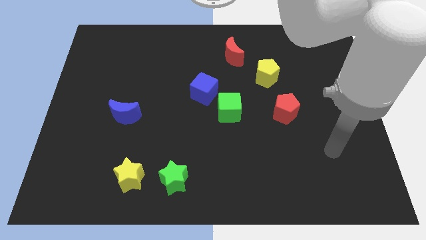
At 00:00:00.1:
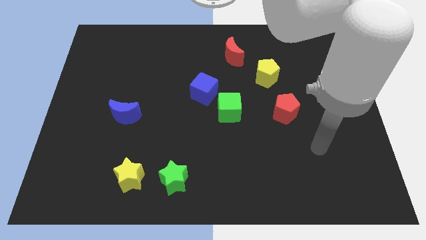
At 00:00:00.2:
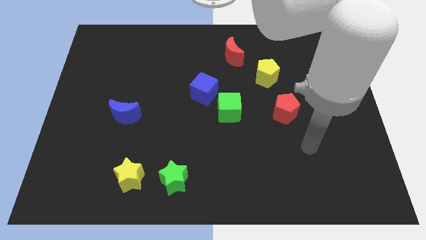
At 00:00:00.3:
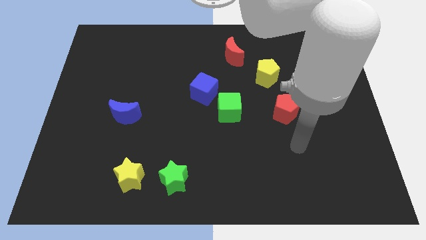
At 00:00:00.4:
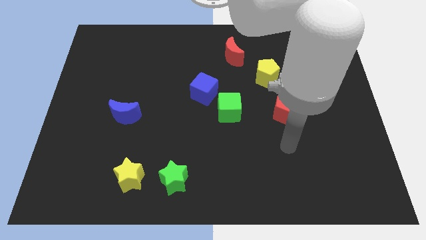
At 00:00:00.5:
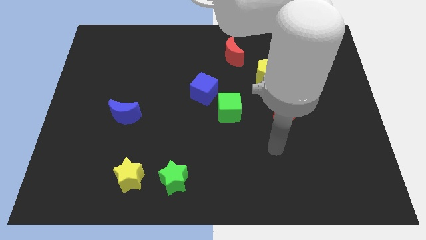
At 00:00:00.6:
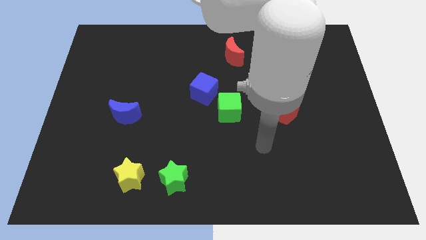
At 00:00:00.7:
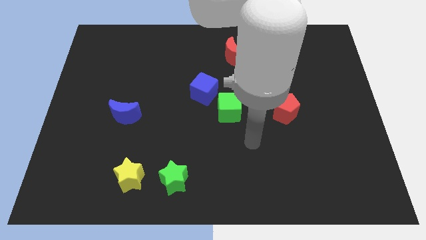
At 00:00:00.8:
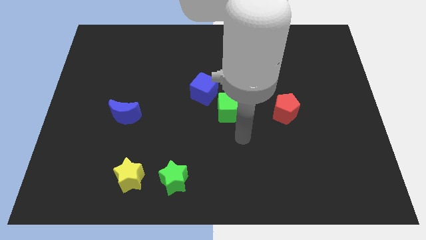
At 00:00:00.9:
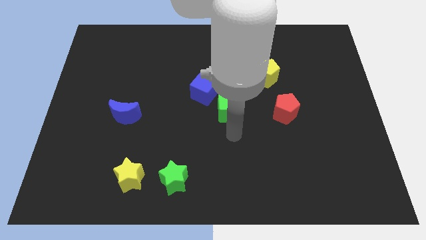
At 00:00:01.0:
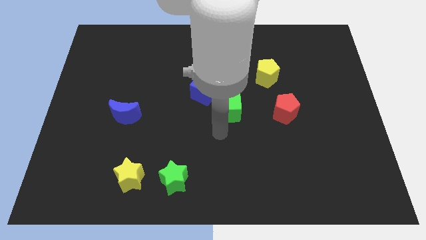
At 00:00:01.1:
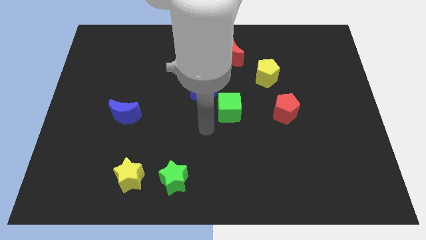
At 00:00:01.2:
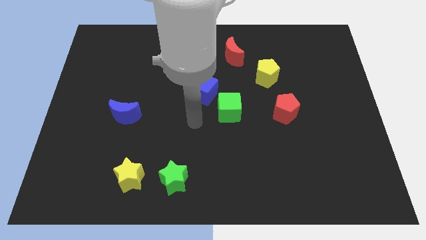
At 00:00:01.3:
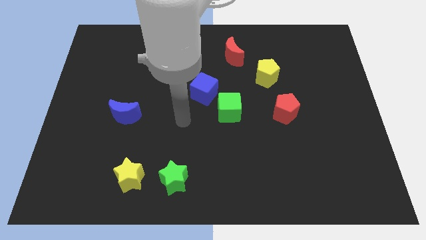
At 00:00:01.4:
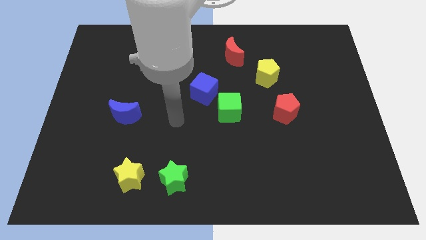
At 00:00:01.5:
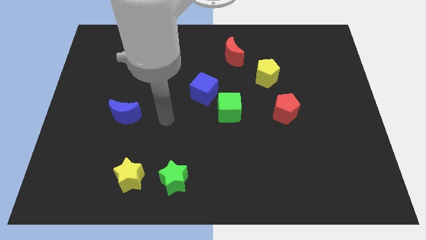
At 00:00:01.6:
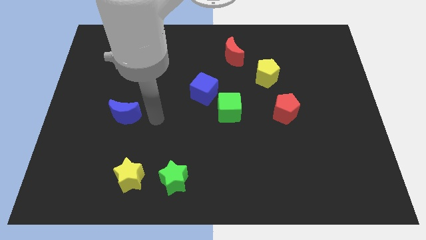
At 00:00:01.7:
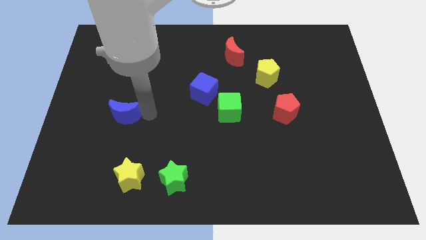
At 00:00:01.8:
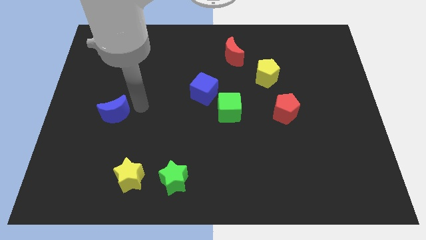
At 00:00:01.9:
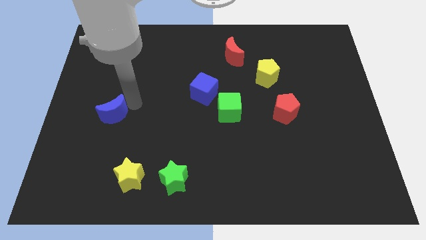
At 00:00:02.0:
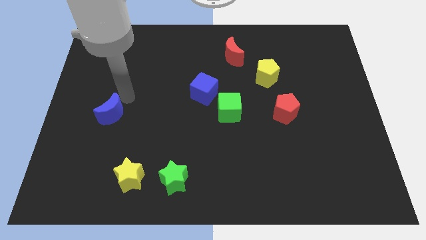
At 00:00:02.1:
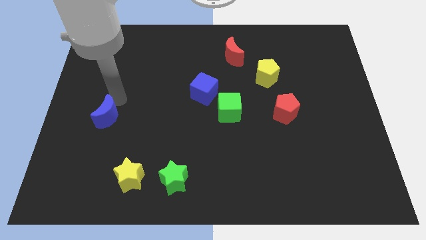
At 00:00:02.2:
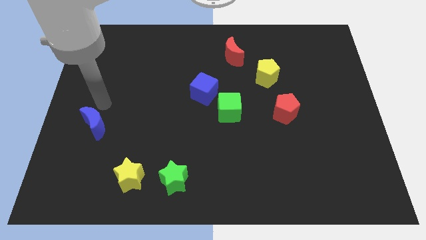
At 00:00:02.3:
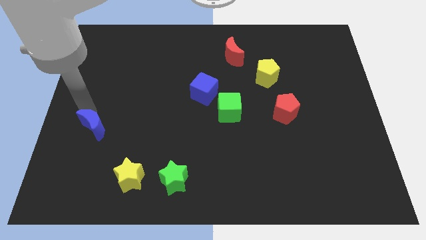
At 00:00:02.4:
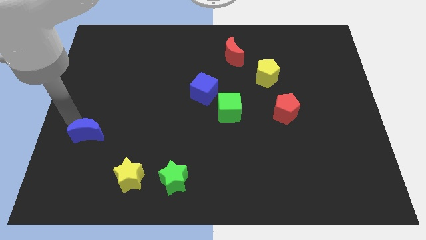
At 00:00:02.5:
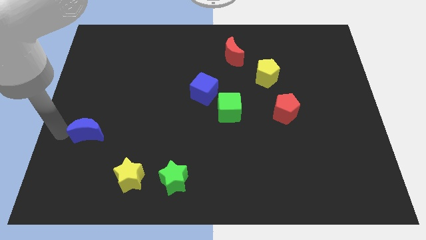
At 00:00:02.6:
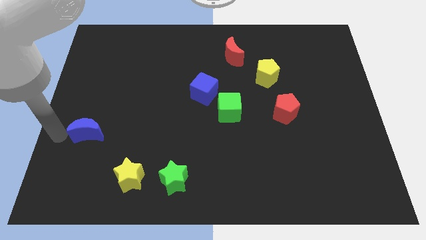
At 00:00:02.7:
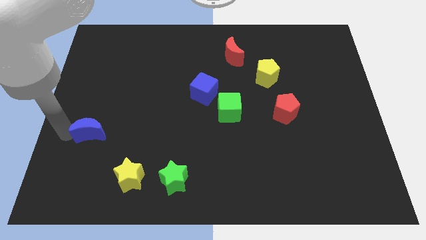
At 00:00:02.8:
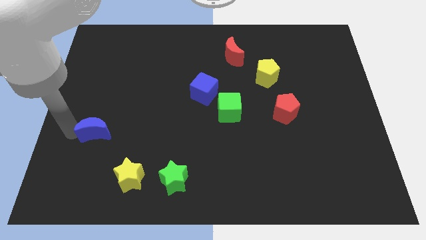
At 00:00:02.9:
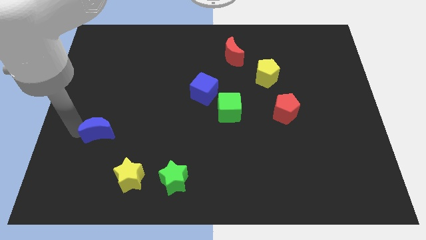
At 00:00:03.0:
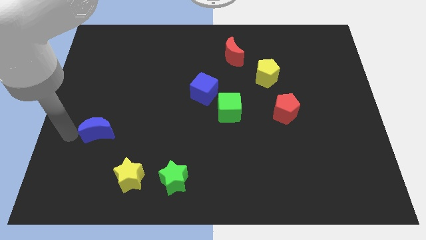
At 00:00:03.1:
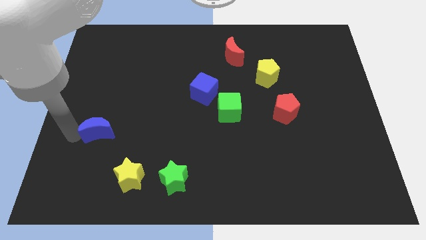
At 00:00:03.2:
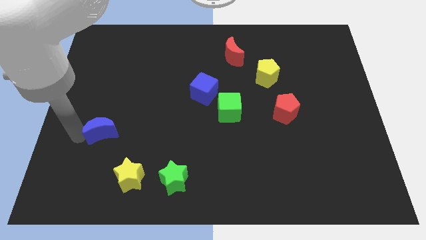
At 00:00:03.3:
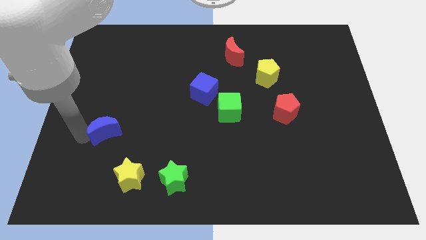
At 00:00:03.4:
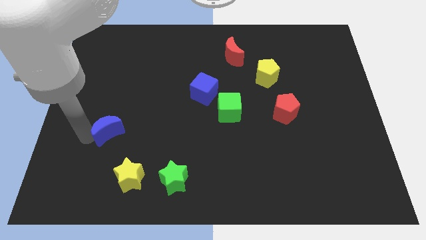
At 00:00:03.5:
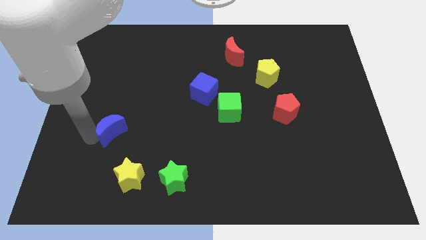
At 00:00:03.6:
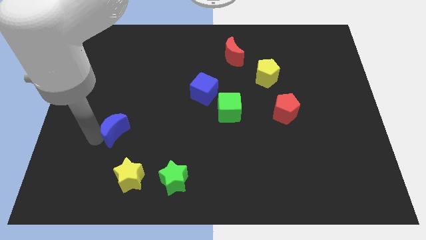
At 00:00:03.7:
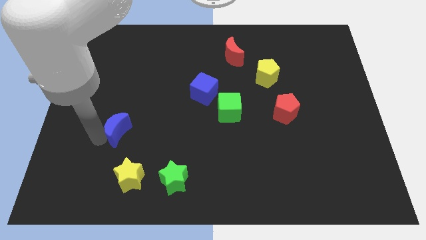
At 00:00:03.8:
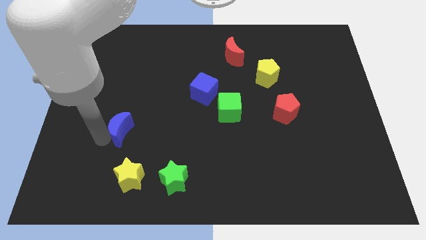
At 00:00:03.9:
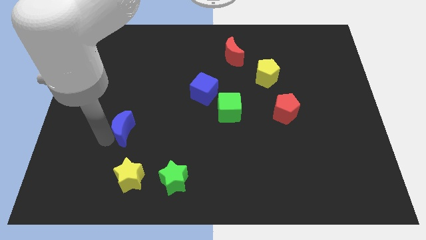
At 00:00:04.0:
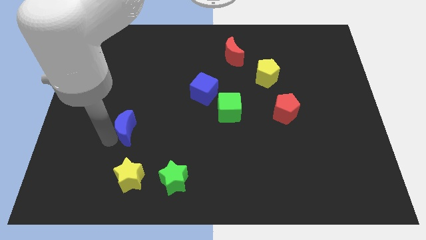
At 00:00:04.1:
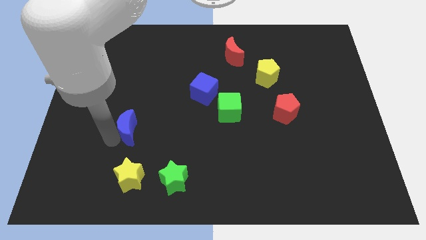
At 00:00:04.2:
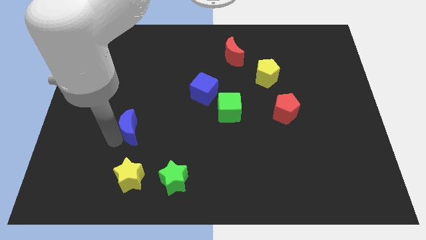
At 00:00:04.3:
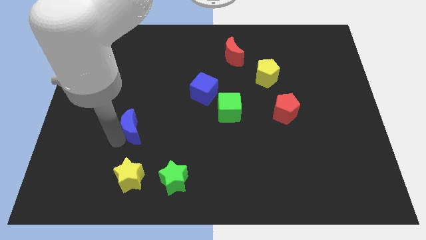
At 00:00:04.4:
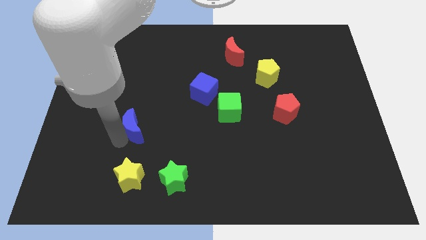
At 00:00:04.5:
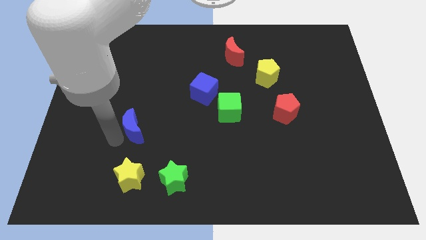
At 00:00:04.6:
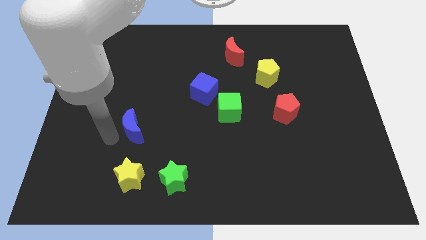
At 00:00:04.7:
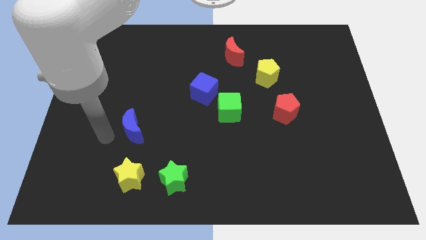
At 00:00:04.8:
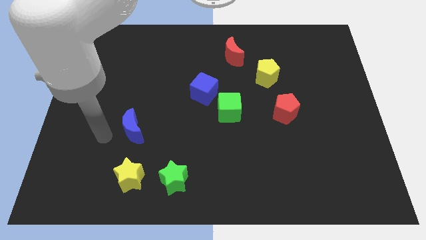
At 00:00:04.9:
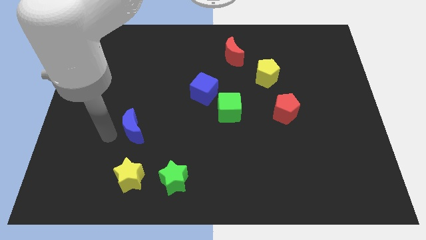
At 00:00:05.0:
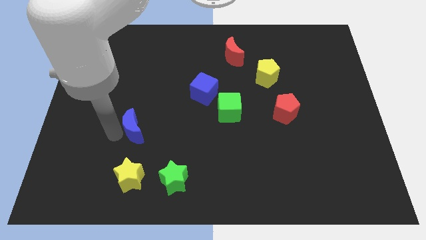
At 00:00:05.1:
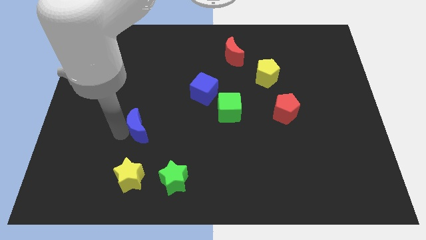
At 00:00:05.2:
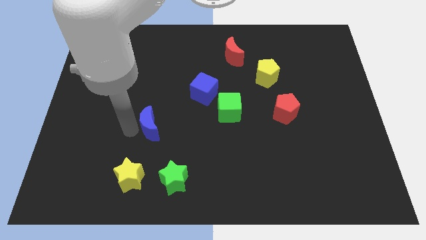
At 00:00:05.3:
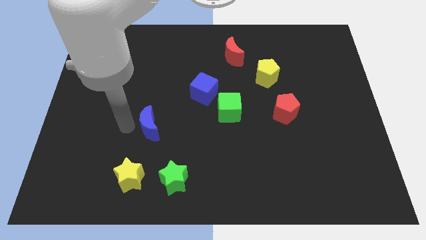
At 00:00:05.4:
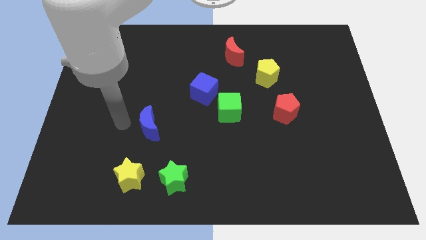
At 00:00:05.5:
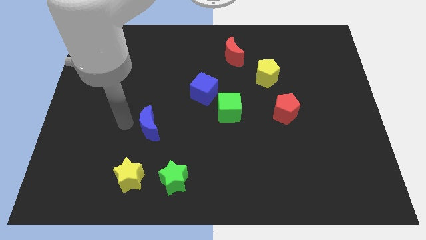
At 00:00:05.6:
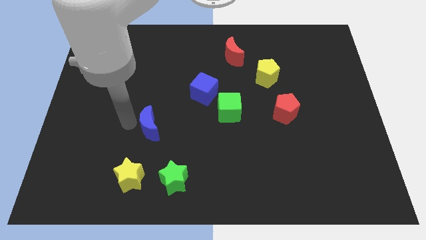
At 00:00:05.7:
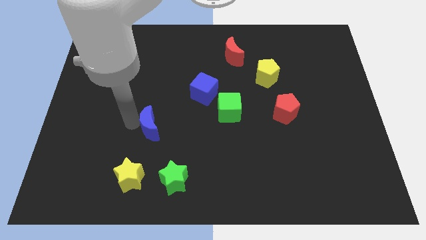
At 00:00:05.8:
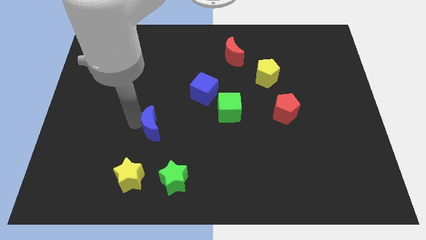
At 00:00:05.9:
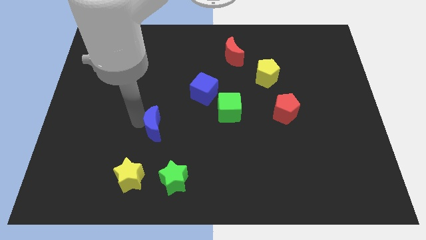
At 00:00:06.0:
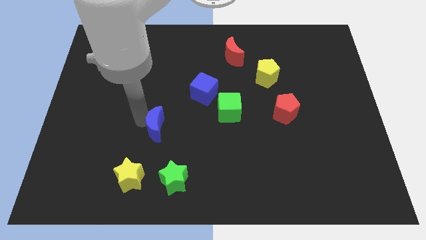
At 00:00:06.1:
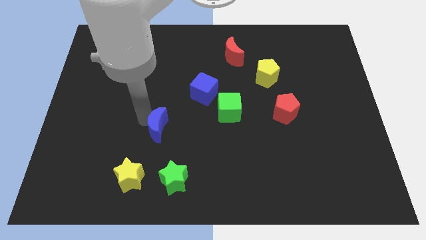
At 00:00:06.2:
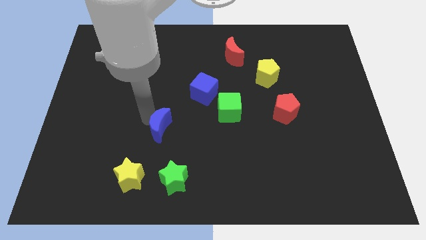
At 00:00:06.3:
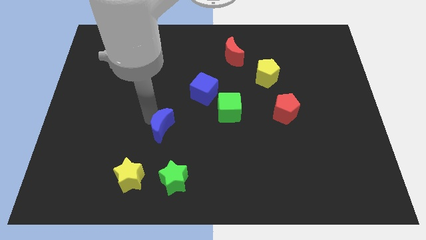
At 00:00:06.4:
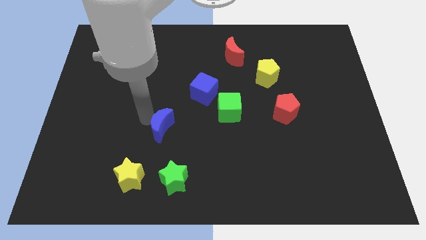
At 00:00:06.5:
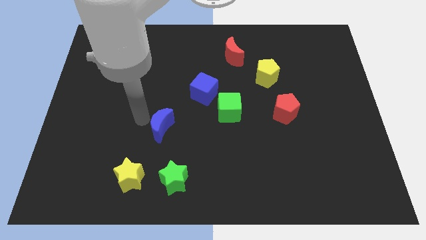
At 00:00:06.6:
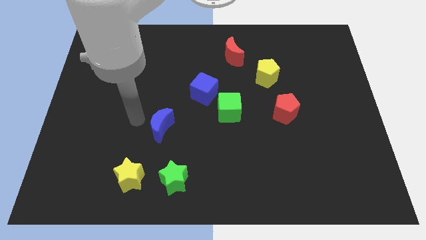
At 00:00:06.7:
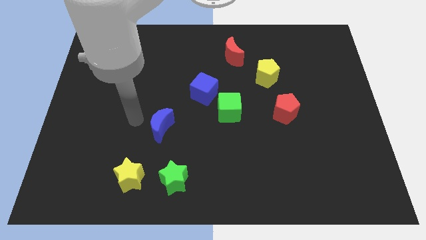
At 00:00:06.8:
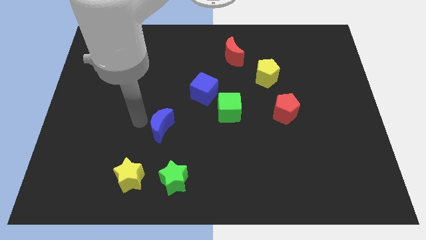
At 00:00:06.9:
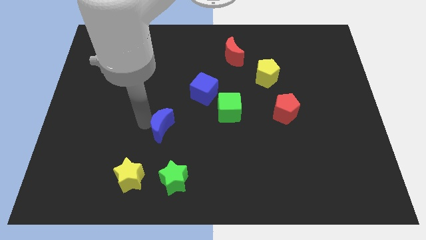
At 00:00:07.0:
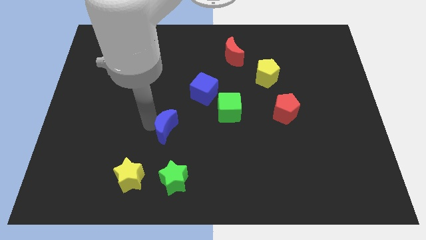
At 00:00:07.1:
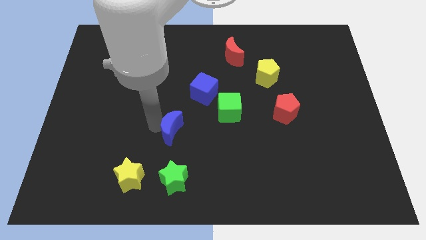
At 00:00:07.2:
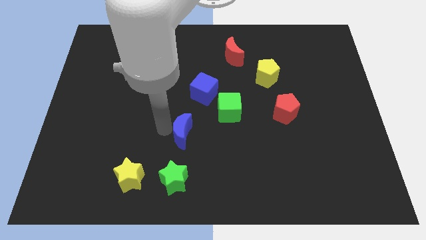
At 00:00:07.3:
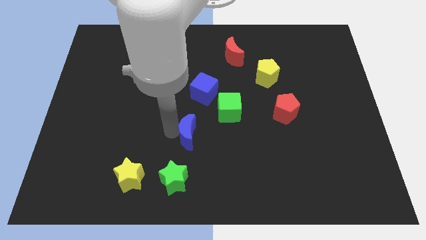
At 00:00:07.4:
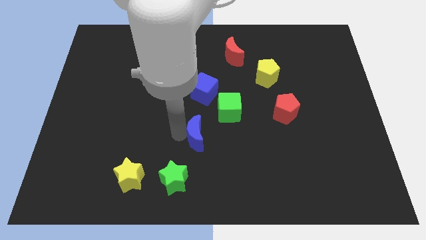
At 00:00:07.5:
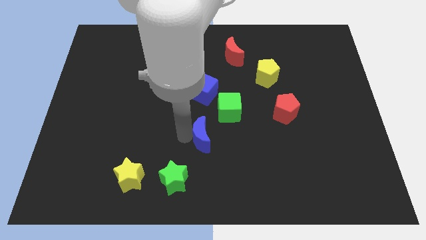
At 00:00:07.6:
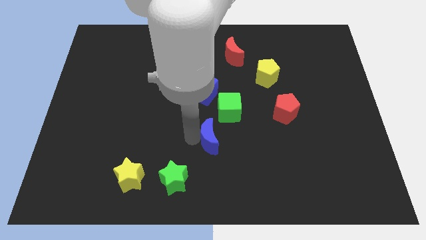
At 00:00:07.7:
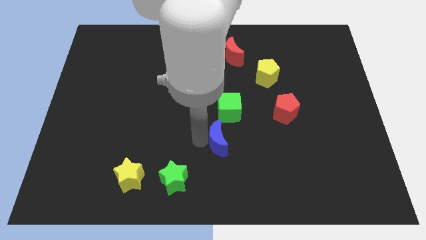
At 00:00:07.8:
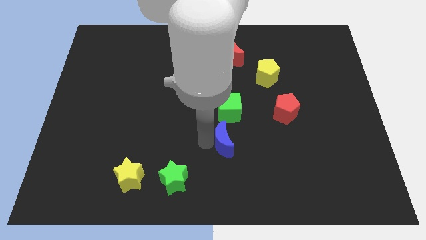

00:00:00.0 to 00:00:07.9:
push the blue moon right
